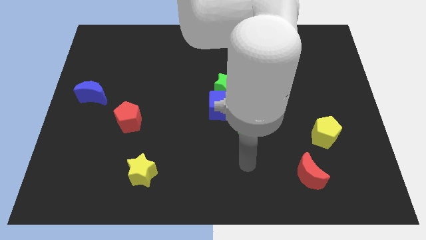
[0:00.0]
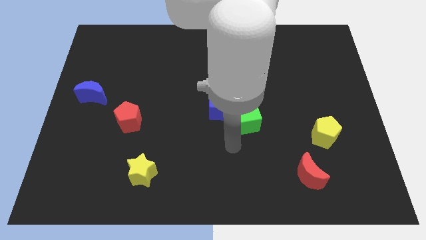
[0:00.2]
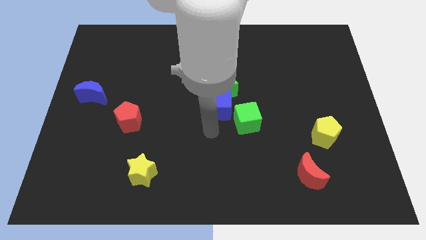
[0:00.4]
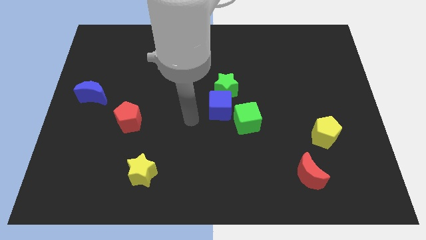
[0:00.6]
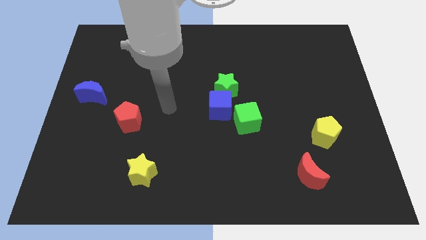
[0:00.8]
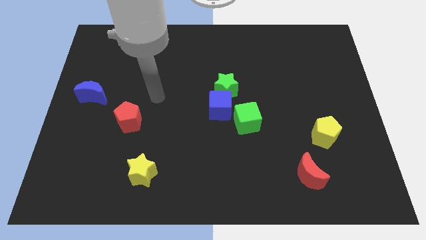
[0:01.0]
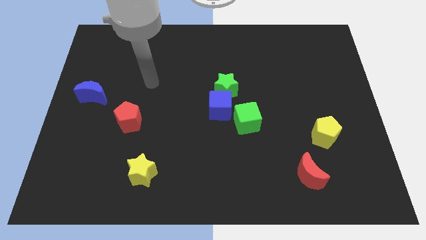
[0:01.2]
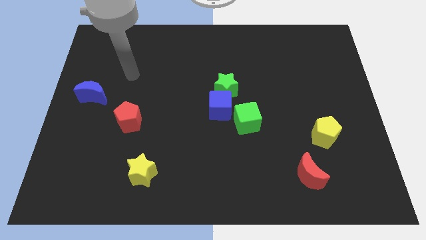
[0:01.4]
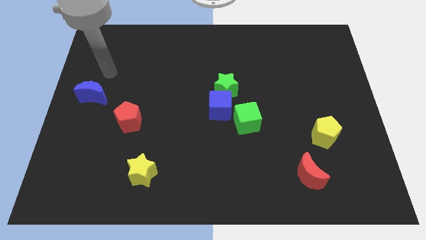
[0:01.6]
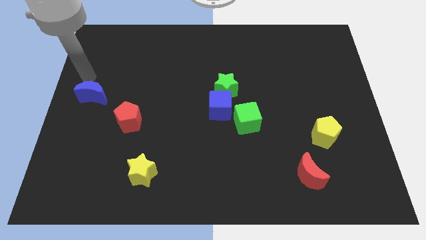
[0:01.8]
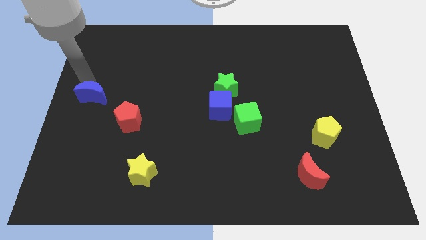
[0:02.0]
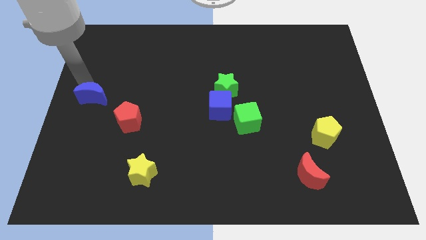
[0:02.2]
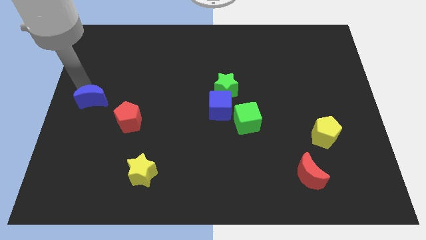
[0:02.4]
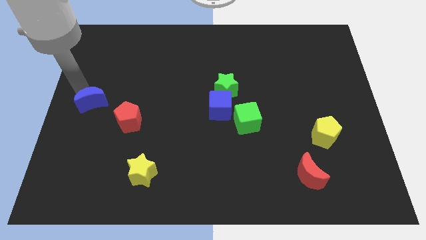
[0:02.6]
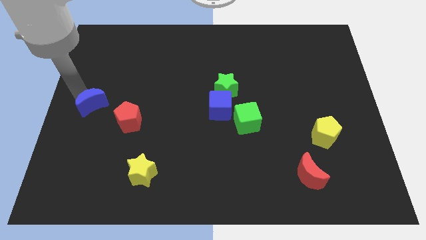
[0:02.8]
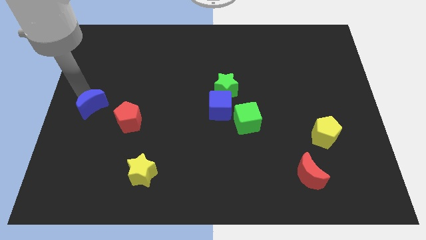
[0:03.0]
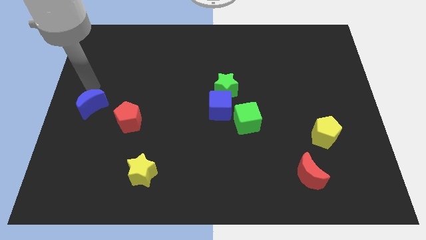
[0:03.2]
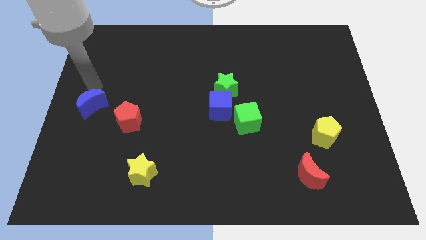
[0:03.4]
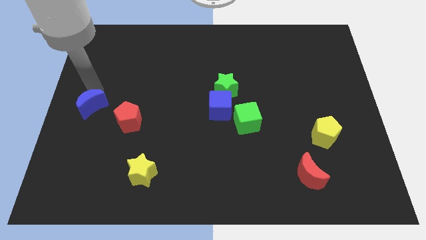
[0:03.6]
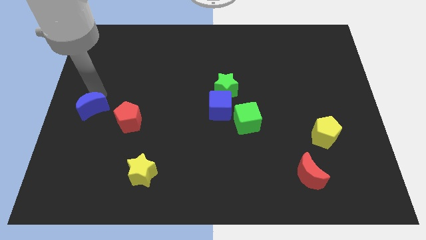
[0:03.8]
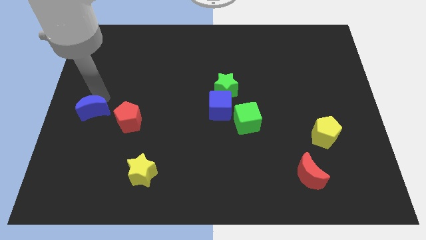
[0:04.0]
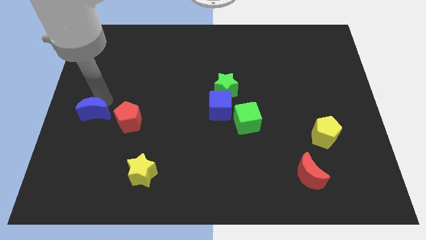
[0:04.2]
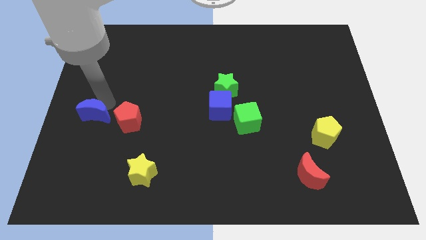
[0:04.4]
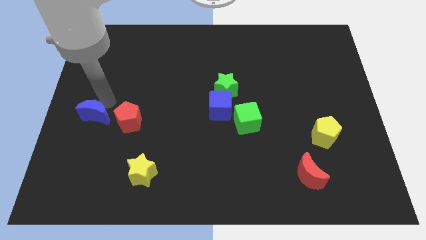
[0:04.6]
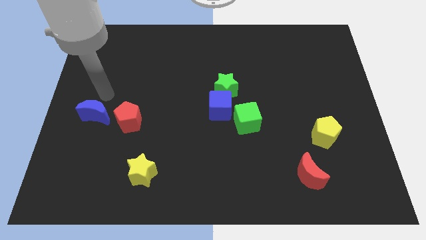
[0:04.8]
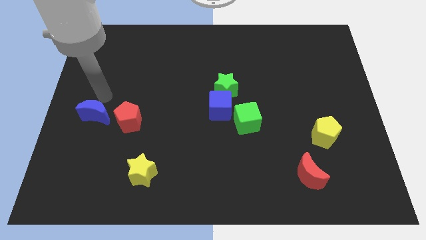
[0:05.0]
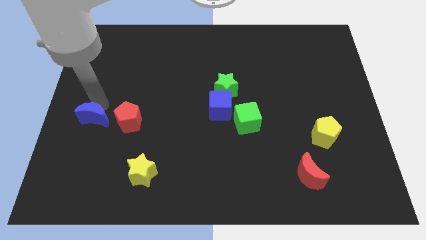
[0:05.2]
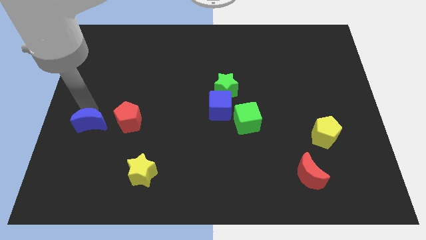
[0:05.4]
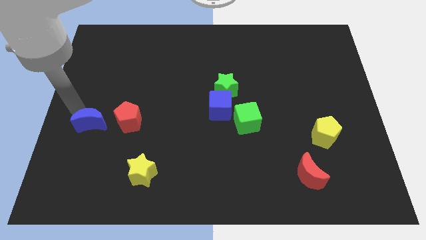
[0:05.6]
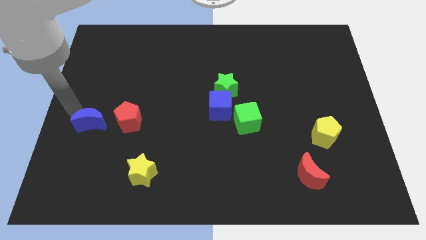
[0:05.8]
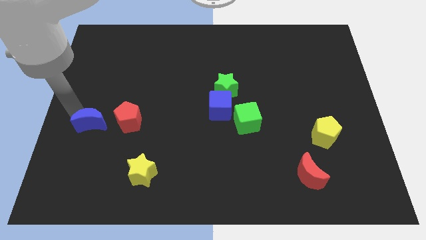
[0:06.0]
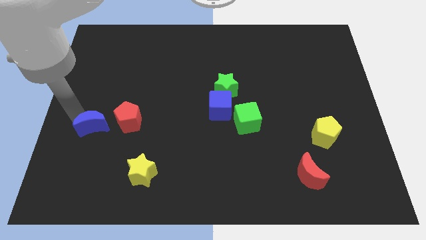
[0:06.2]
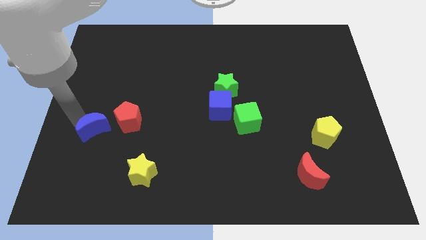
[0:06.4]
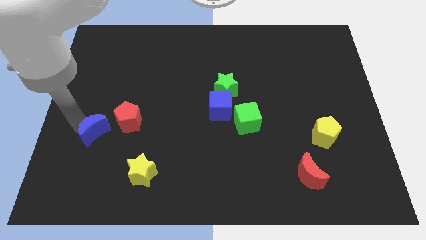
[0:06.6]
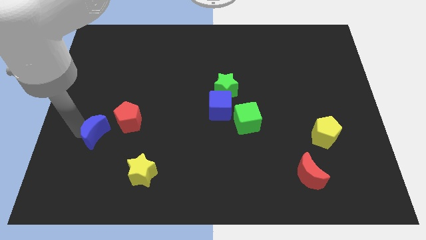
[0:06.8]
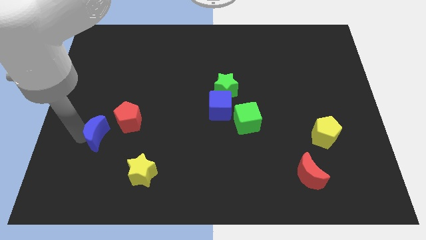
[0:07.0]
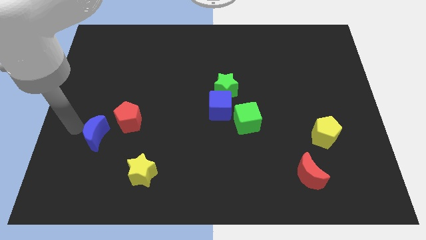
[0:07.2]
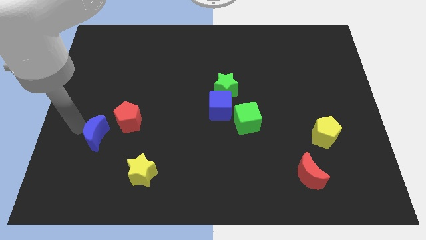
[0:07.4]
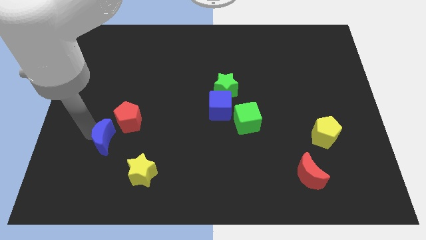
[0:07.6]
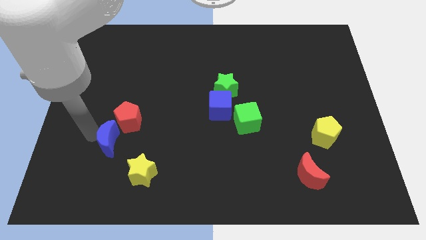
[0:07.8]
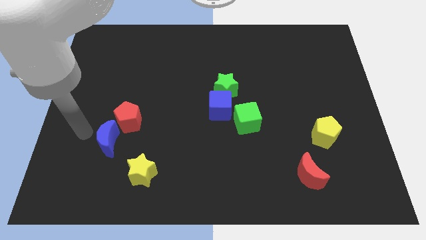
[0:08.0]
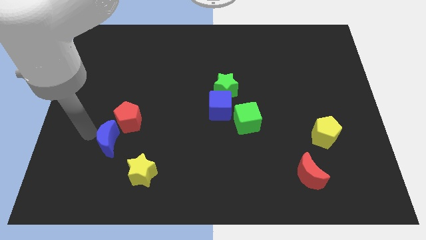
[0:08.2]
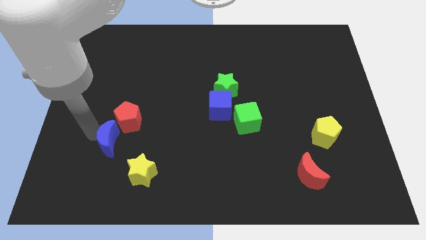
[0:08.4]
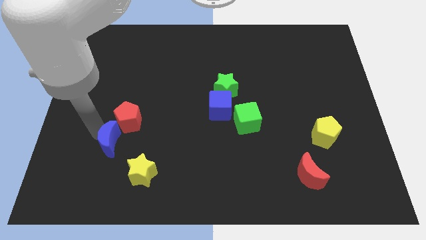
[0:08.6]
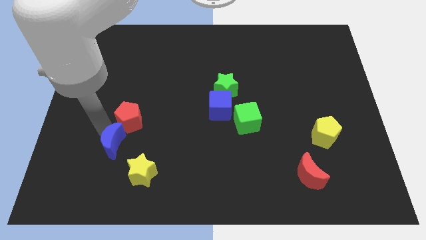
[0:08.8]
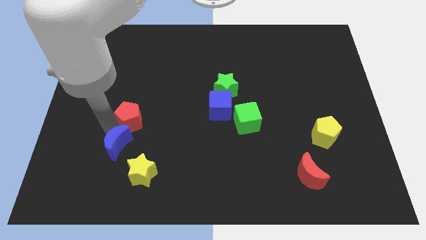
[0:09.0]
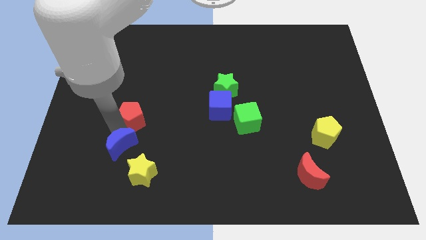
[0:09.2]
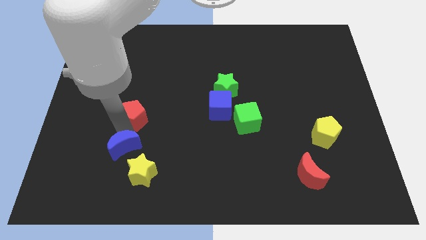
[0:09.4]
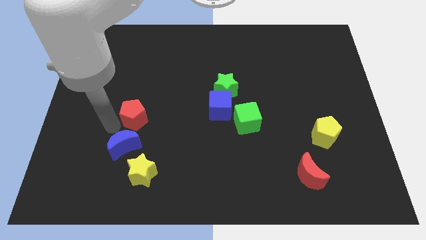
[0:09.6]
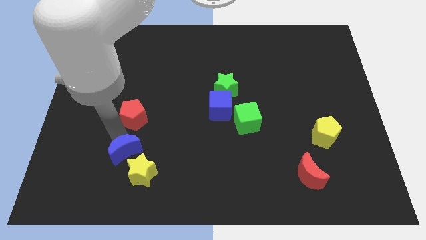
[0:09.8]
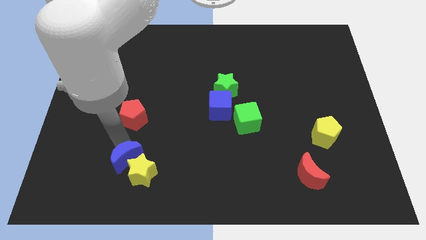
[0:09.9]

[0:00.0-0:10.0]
put the blue moon towards the yellow star

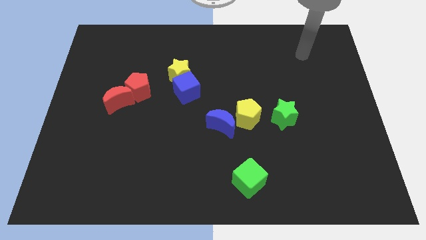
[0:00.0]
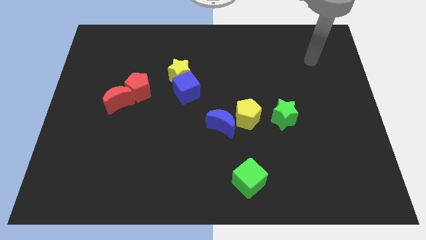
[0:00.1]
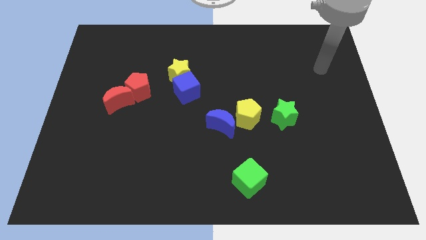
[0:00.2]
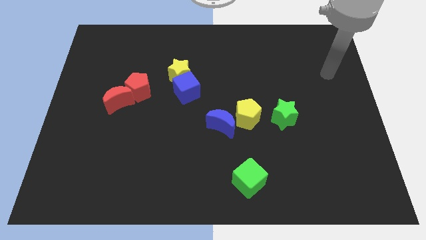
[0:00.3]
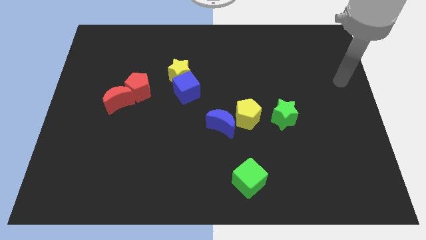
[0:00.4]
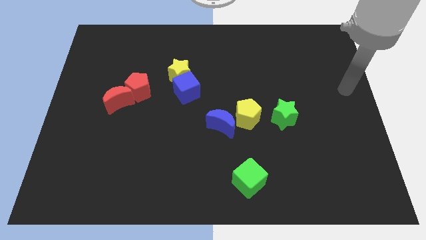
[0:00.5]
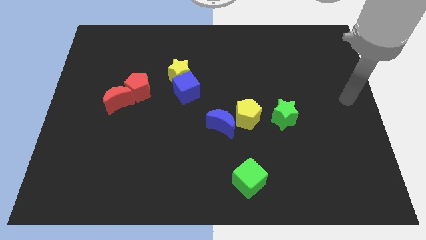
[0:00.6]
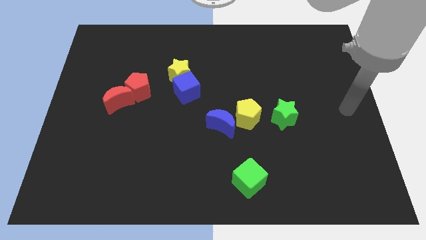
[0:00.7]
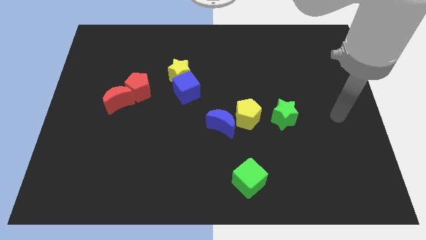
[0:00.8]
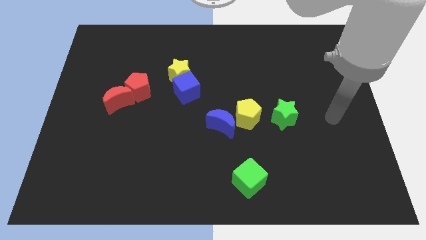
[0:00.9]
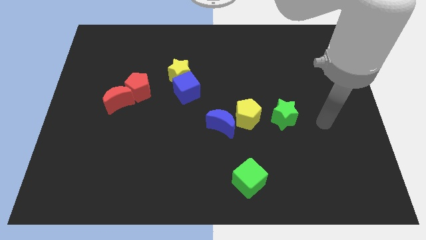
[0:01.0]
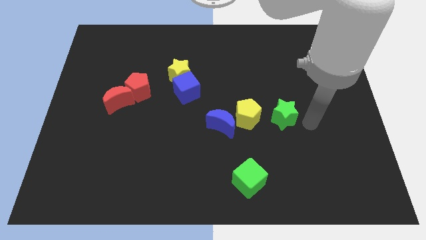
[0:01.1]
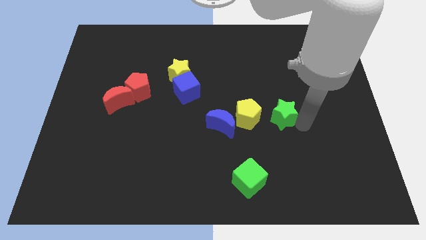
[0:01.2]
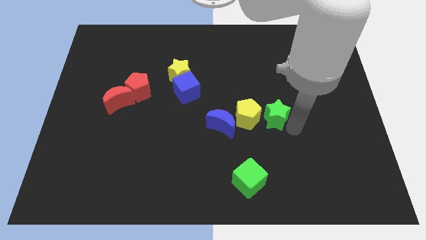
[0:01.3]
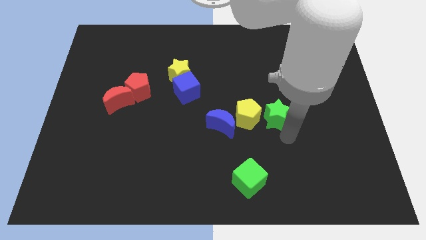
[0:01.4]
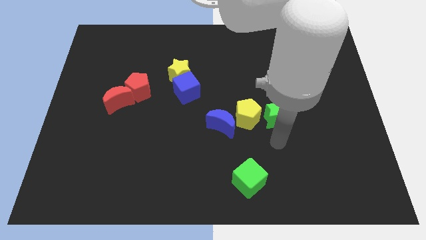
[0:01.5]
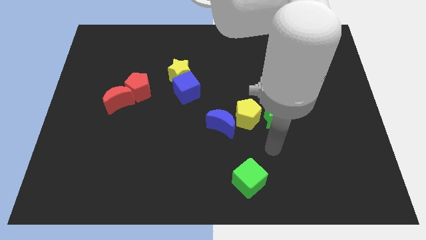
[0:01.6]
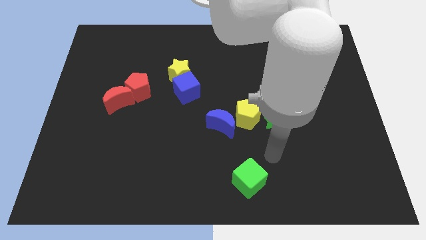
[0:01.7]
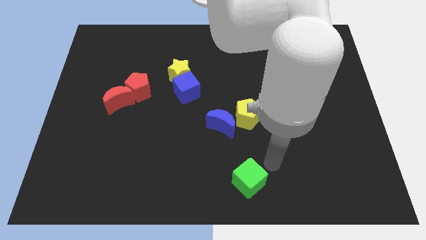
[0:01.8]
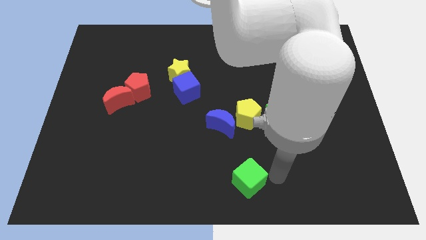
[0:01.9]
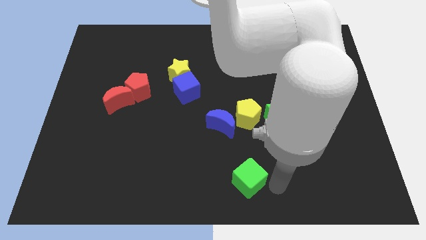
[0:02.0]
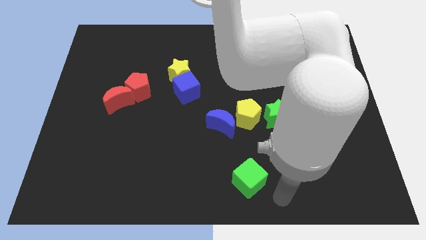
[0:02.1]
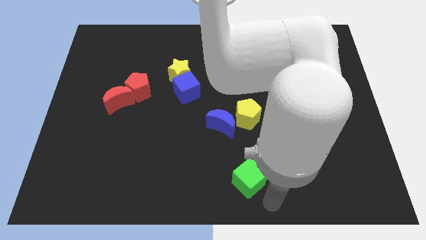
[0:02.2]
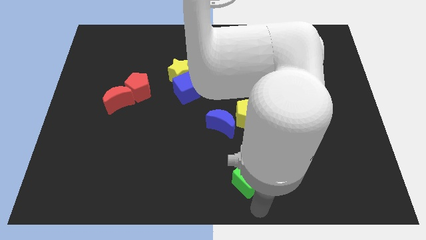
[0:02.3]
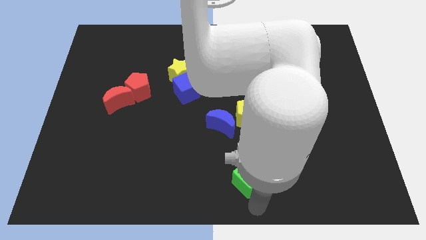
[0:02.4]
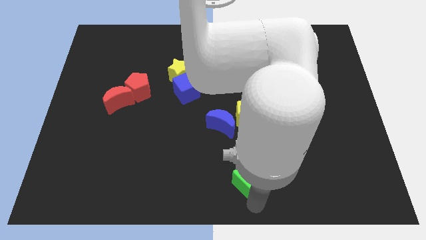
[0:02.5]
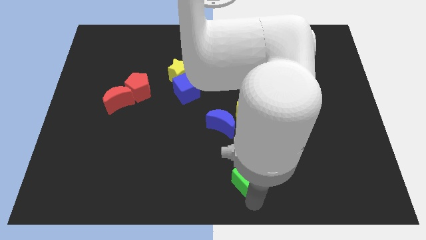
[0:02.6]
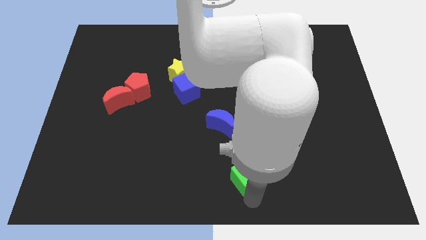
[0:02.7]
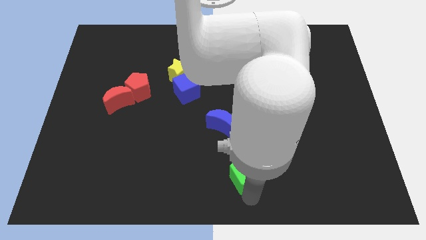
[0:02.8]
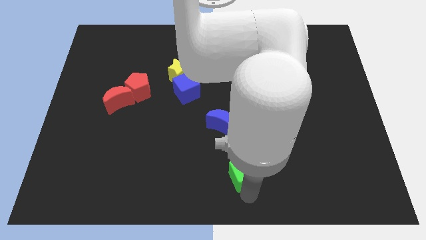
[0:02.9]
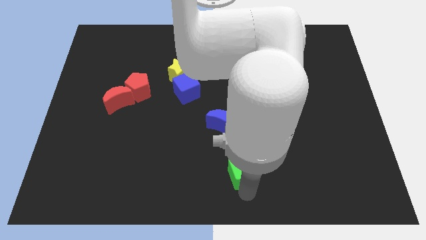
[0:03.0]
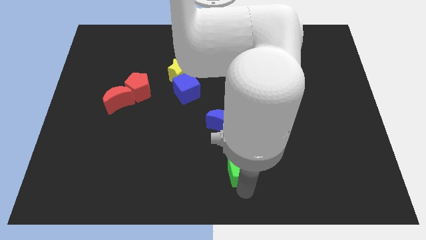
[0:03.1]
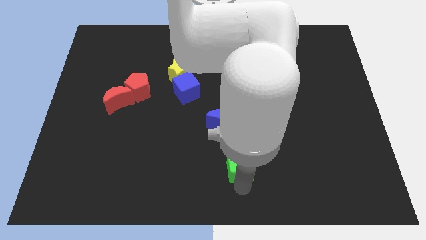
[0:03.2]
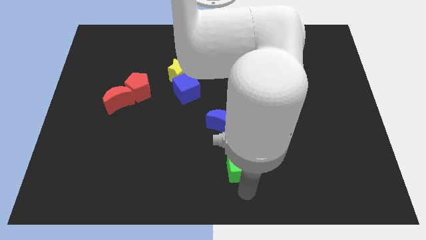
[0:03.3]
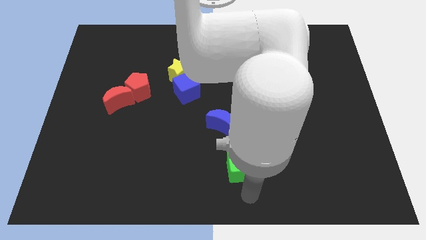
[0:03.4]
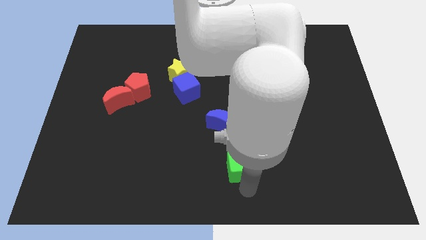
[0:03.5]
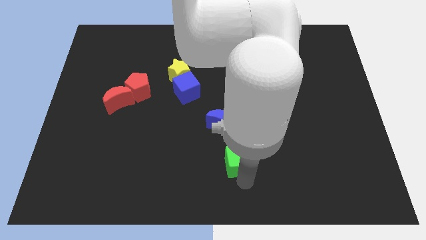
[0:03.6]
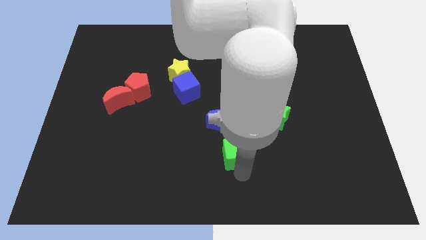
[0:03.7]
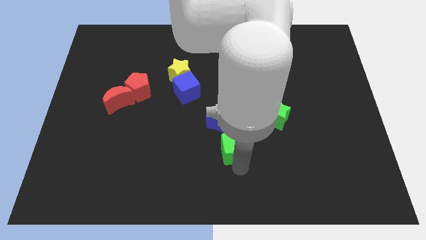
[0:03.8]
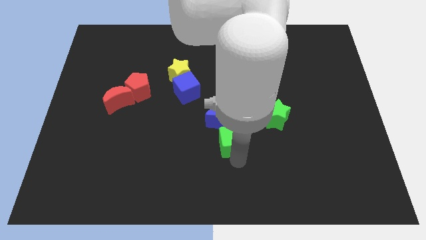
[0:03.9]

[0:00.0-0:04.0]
move the green cube to the blue moon
